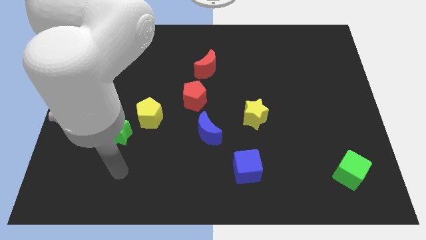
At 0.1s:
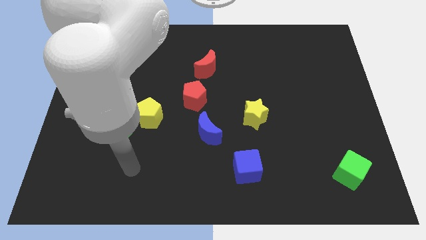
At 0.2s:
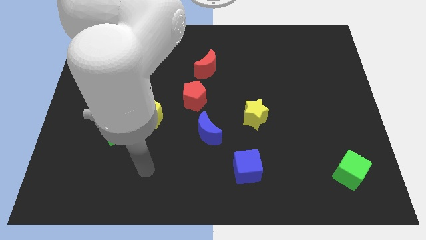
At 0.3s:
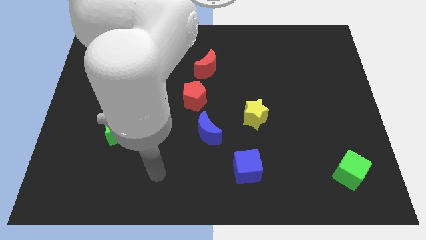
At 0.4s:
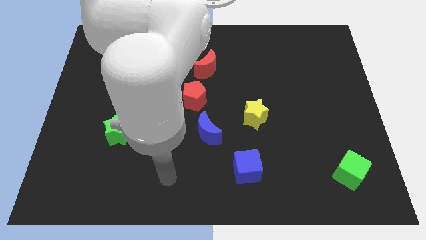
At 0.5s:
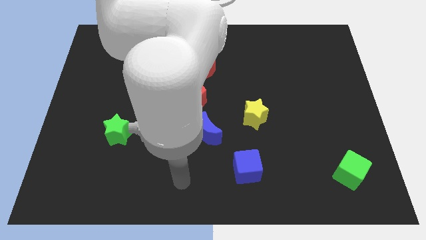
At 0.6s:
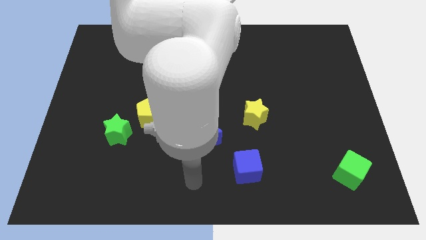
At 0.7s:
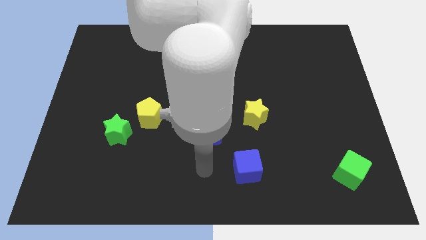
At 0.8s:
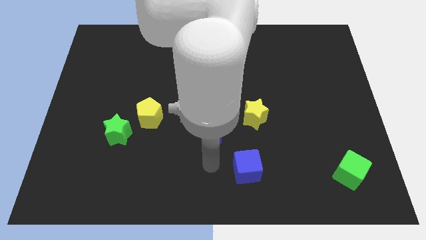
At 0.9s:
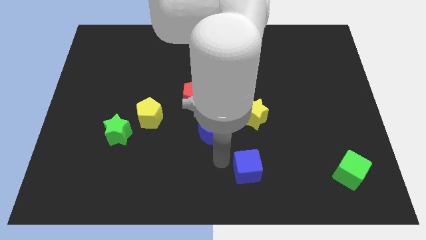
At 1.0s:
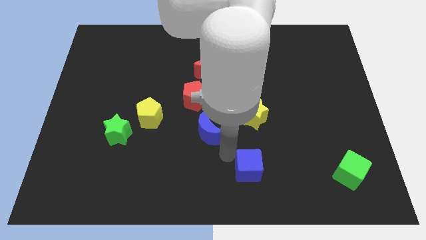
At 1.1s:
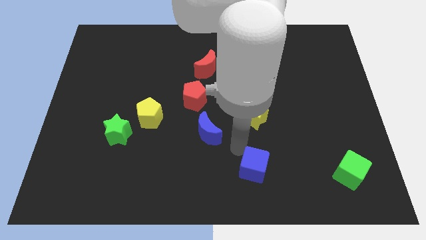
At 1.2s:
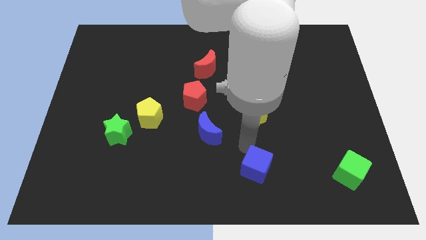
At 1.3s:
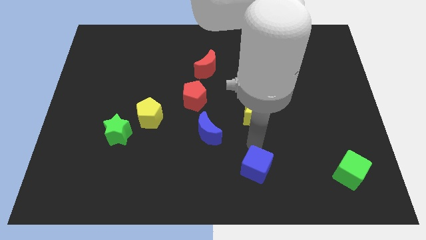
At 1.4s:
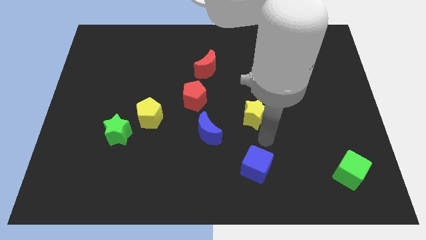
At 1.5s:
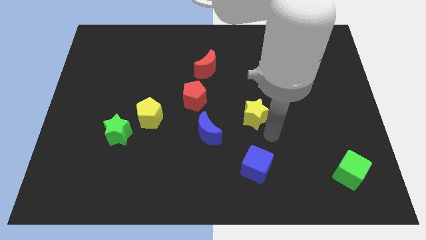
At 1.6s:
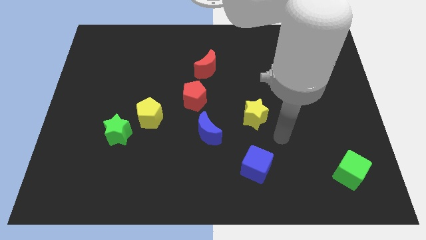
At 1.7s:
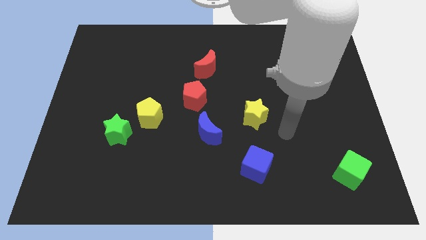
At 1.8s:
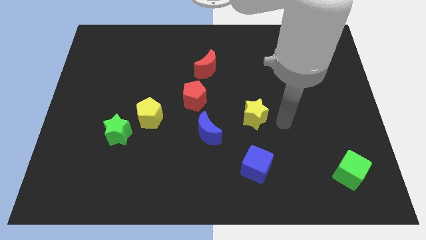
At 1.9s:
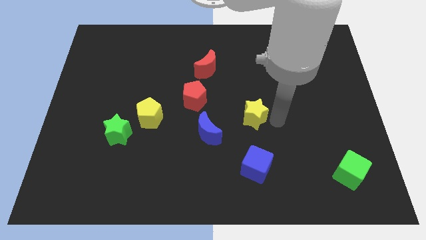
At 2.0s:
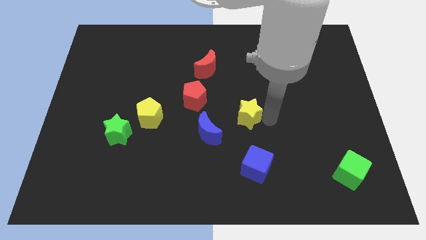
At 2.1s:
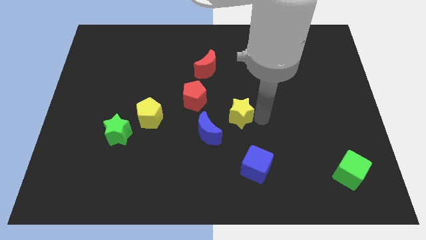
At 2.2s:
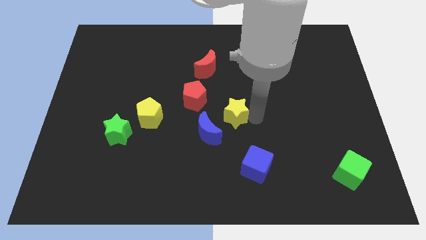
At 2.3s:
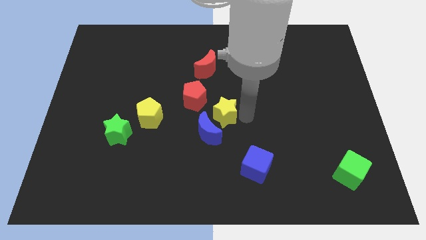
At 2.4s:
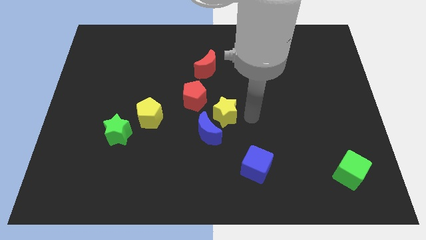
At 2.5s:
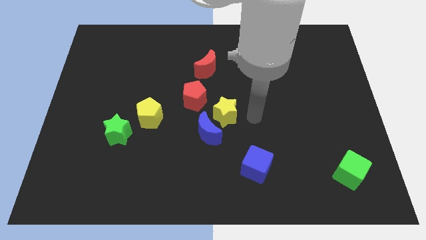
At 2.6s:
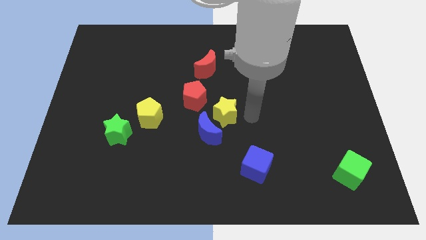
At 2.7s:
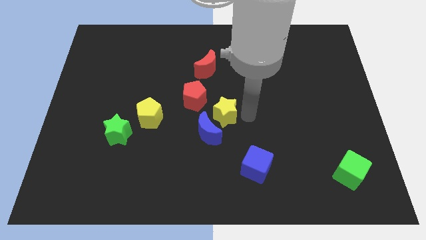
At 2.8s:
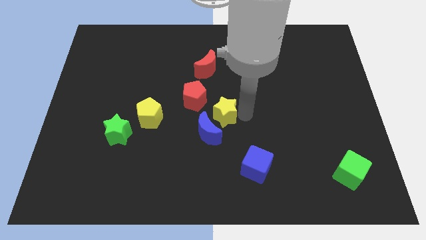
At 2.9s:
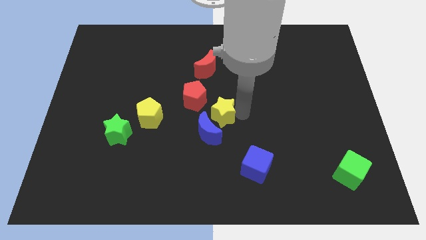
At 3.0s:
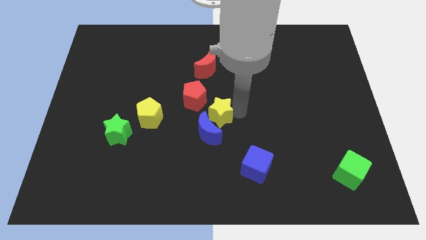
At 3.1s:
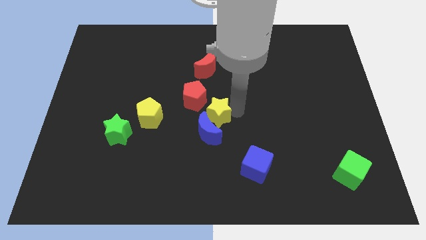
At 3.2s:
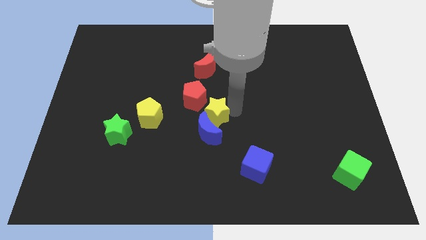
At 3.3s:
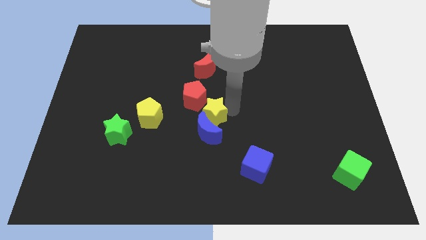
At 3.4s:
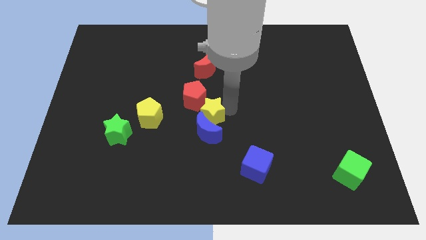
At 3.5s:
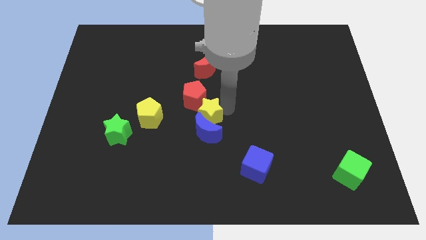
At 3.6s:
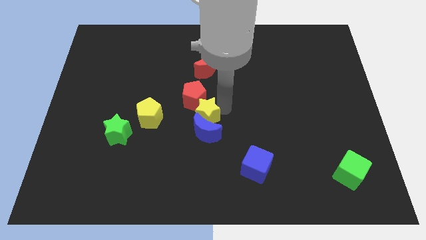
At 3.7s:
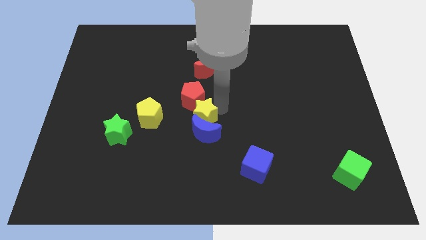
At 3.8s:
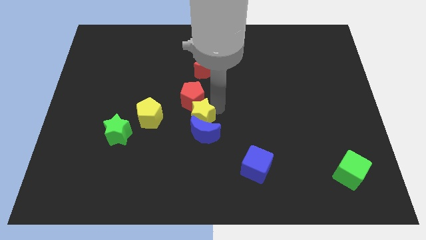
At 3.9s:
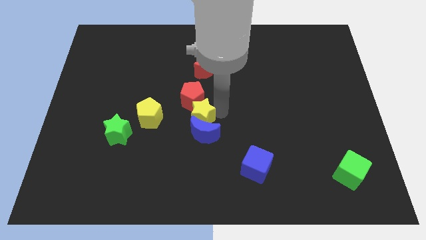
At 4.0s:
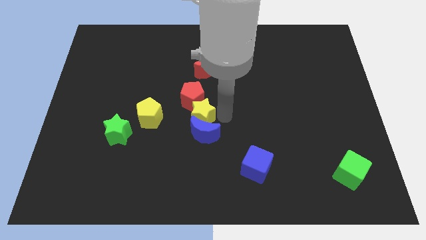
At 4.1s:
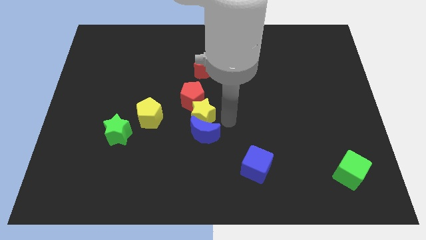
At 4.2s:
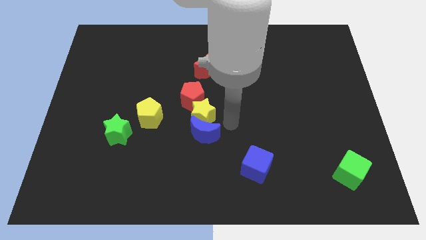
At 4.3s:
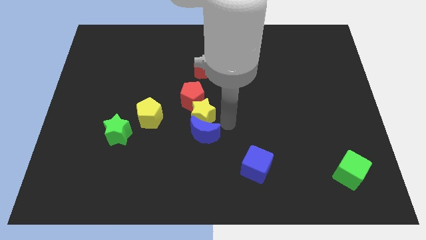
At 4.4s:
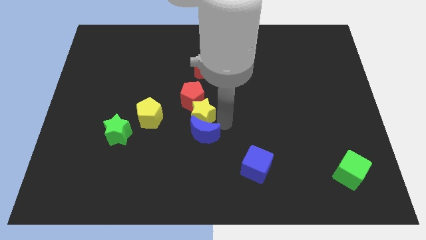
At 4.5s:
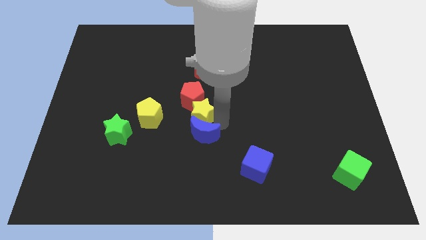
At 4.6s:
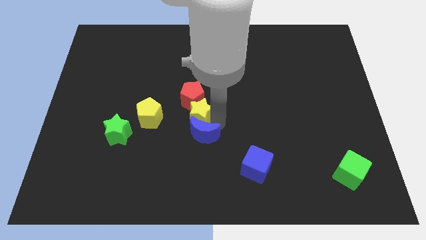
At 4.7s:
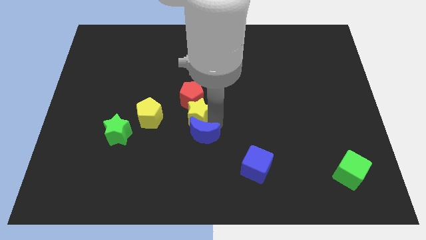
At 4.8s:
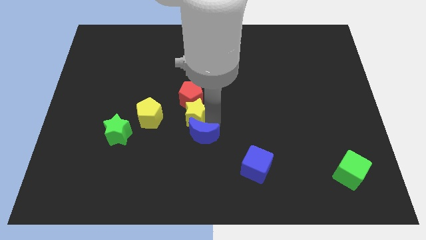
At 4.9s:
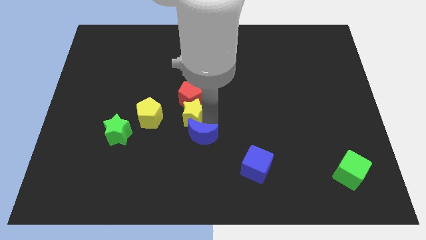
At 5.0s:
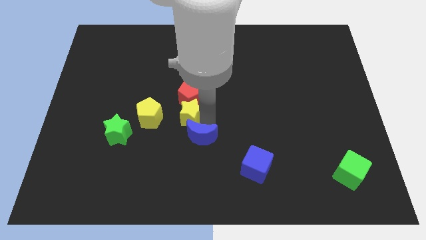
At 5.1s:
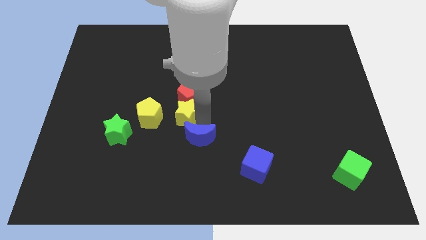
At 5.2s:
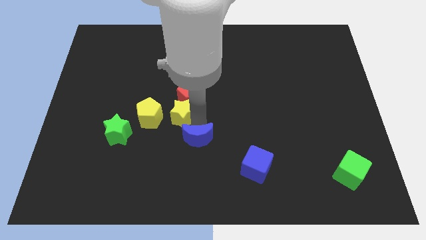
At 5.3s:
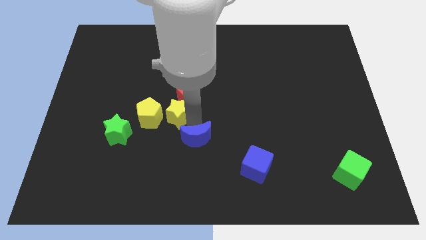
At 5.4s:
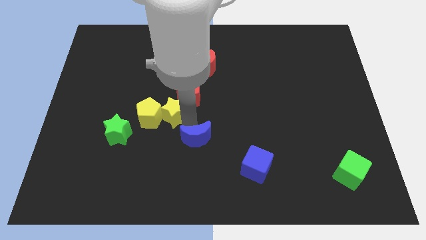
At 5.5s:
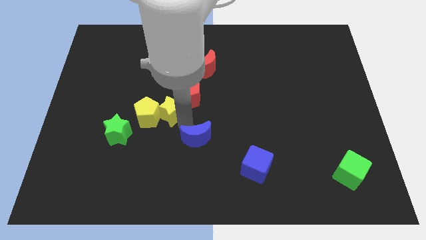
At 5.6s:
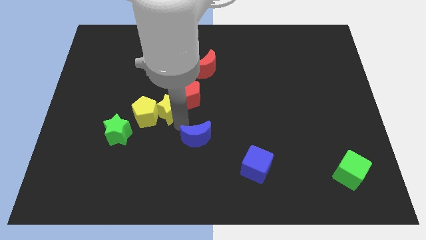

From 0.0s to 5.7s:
put the yellow star left of the red pentagon

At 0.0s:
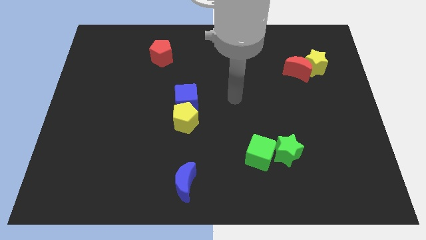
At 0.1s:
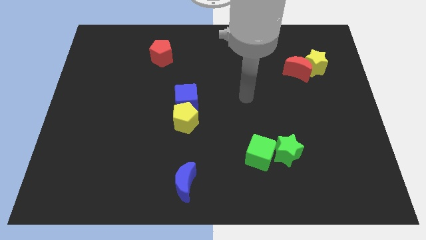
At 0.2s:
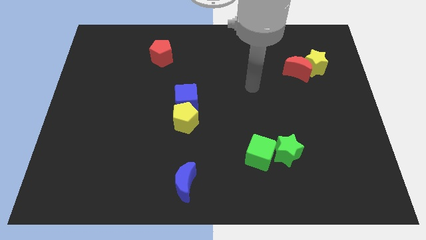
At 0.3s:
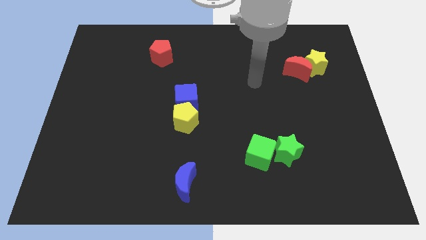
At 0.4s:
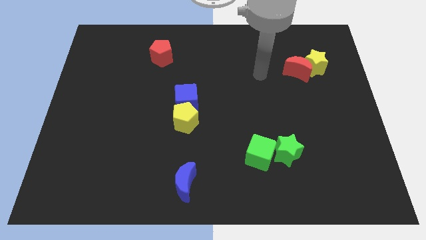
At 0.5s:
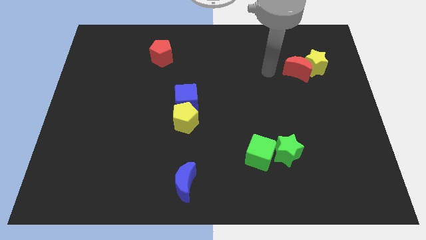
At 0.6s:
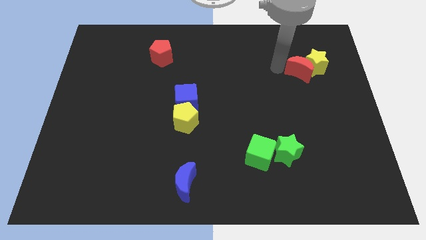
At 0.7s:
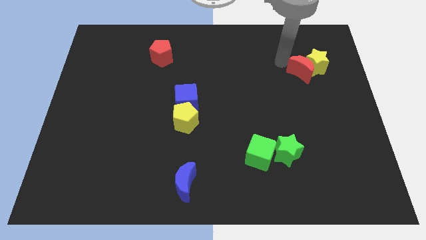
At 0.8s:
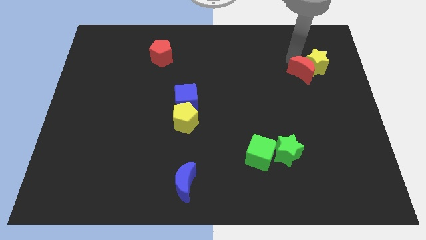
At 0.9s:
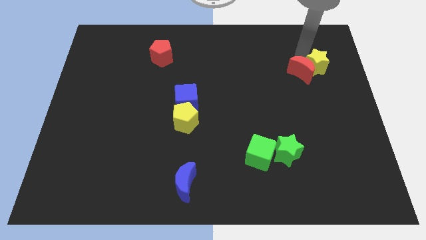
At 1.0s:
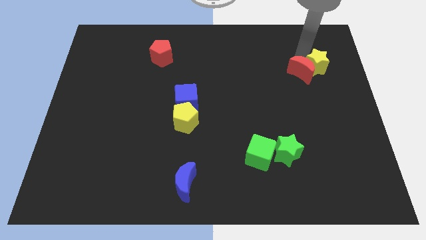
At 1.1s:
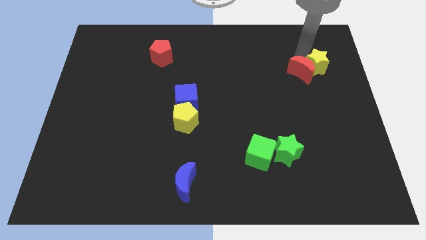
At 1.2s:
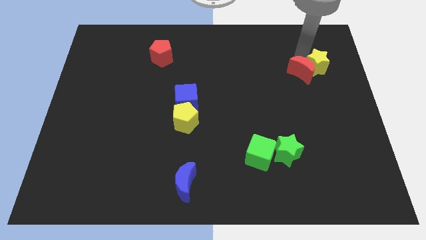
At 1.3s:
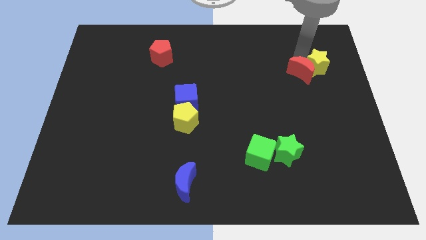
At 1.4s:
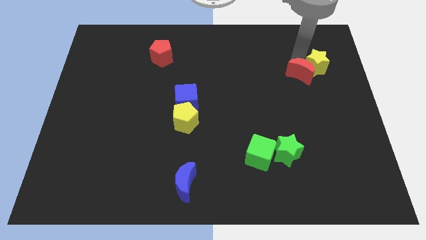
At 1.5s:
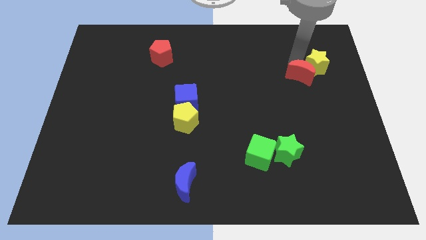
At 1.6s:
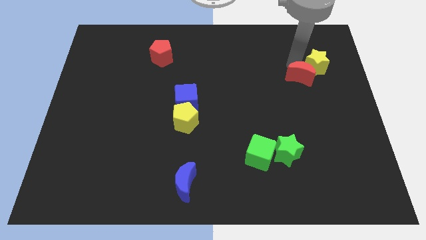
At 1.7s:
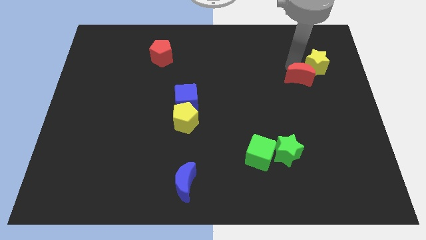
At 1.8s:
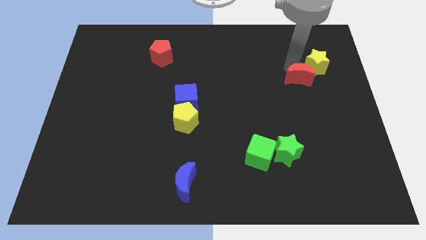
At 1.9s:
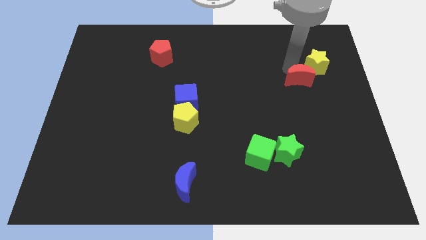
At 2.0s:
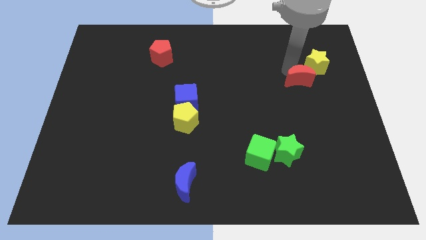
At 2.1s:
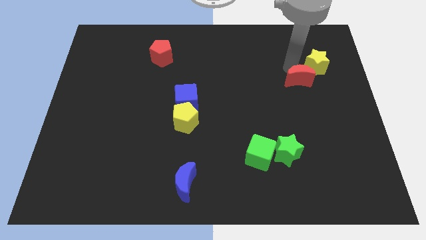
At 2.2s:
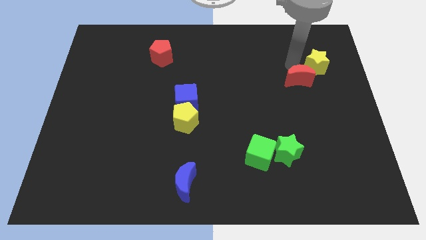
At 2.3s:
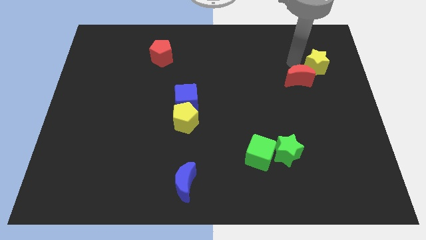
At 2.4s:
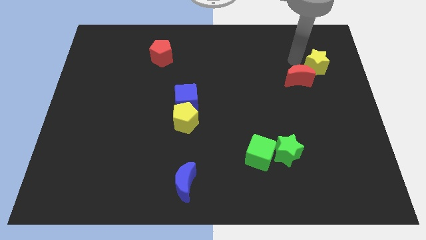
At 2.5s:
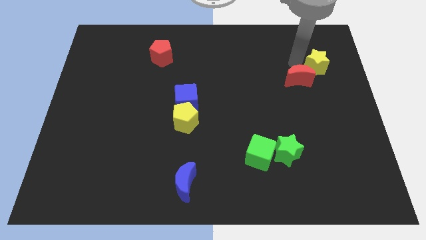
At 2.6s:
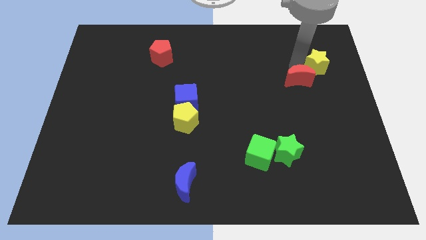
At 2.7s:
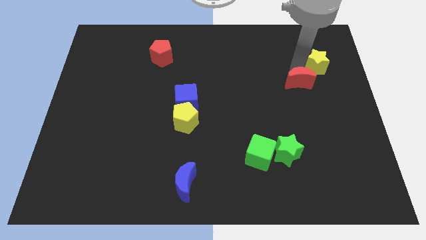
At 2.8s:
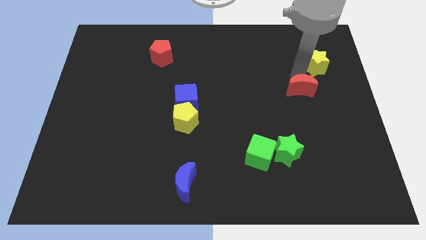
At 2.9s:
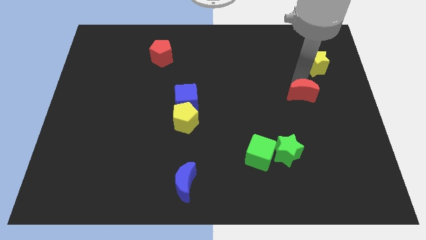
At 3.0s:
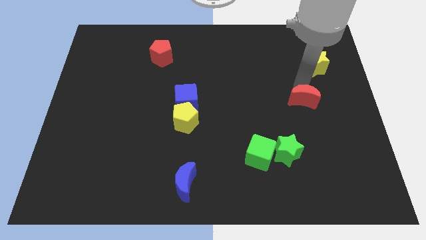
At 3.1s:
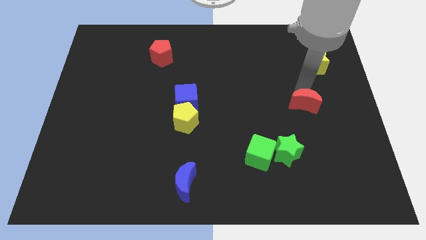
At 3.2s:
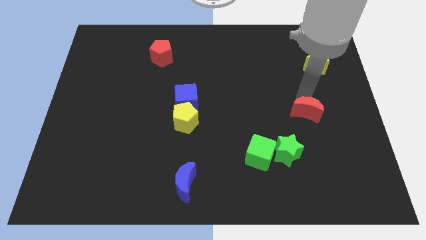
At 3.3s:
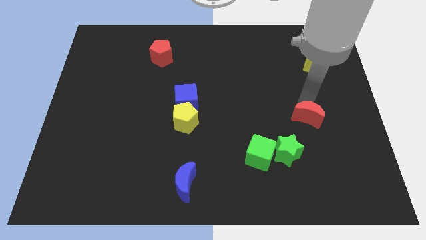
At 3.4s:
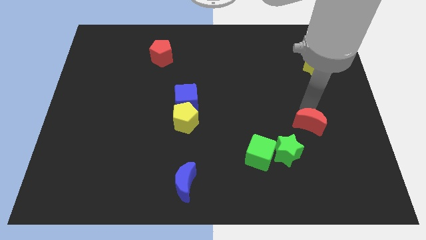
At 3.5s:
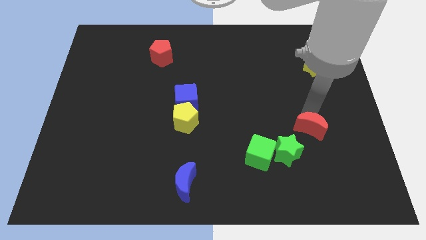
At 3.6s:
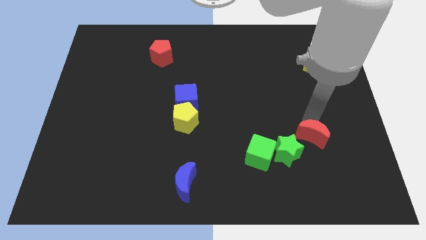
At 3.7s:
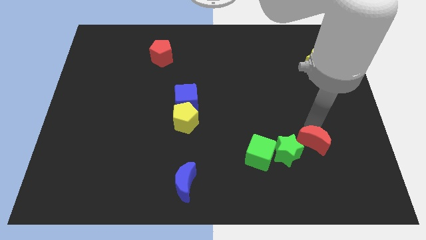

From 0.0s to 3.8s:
move the red moon right of the green cube
